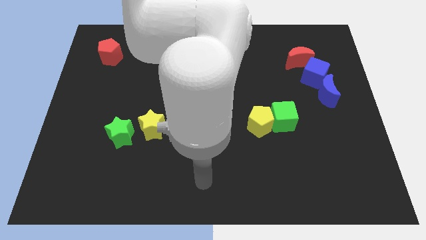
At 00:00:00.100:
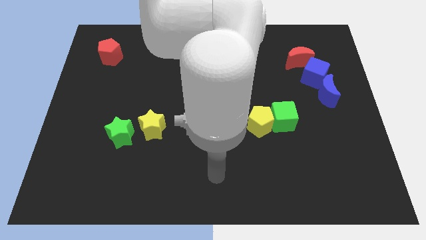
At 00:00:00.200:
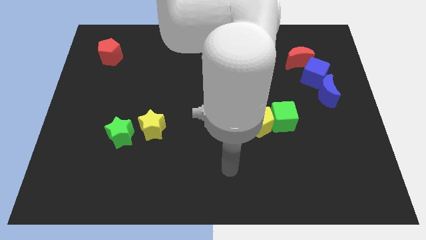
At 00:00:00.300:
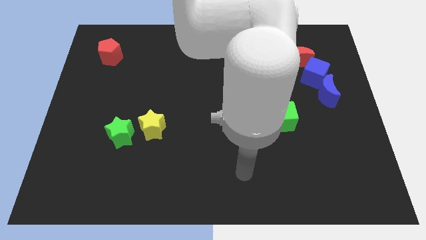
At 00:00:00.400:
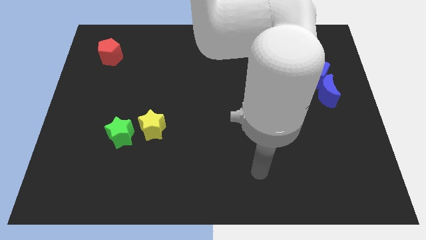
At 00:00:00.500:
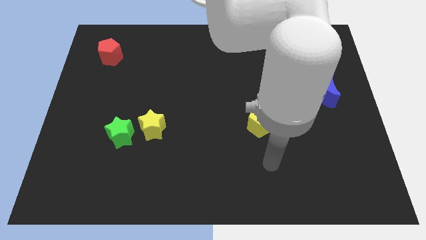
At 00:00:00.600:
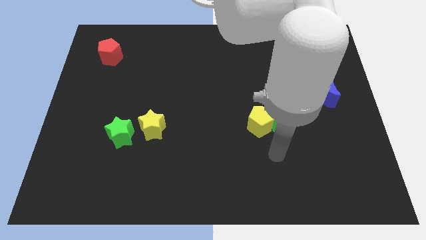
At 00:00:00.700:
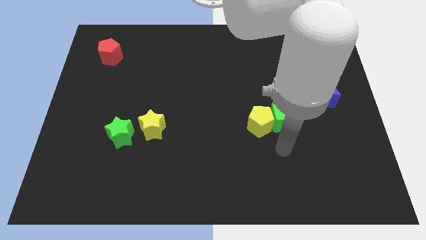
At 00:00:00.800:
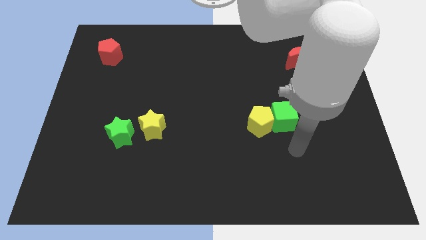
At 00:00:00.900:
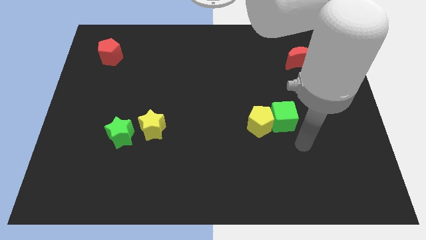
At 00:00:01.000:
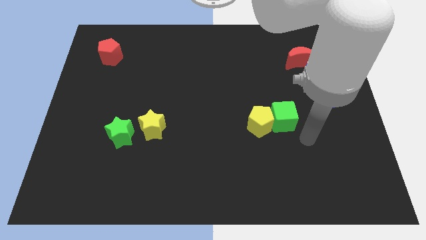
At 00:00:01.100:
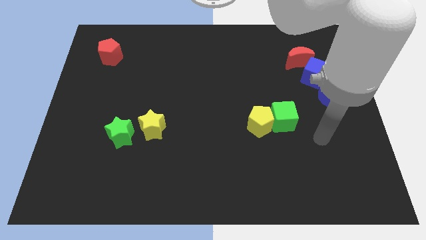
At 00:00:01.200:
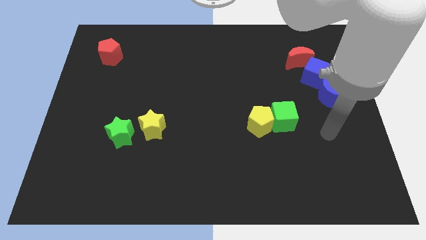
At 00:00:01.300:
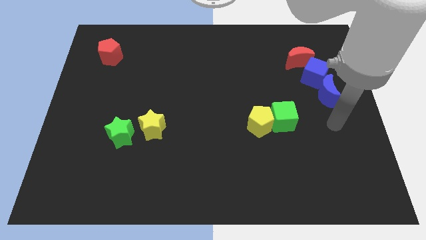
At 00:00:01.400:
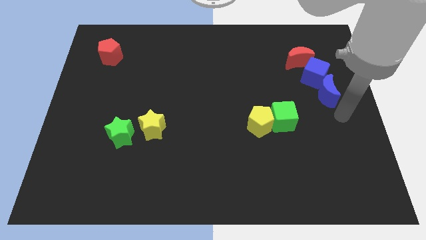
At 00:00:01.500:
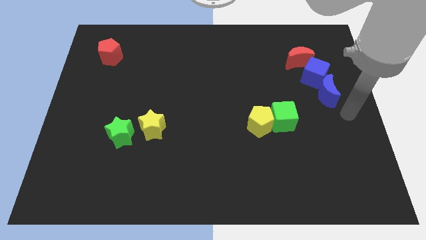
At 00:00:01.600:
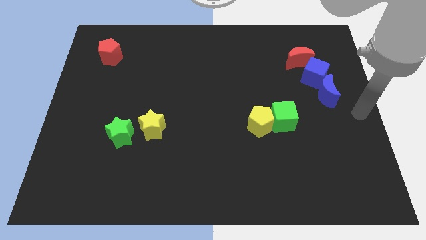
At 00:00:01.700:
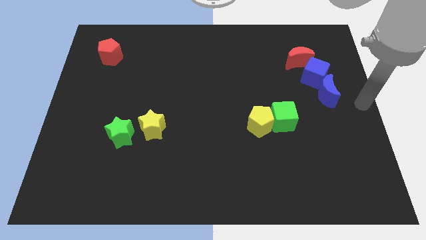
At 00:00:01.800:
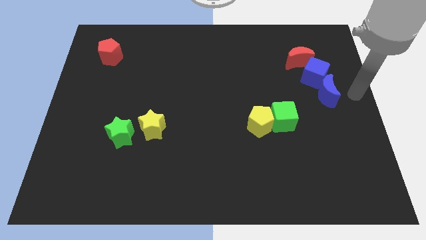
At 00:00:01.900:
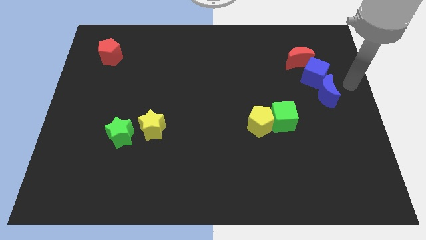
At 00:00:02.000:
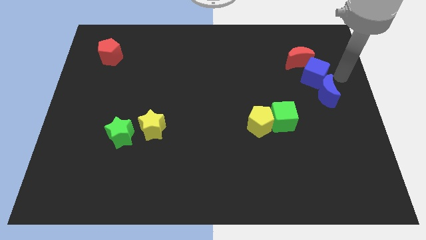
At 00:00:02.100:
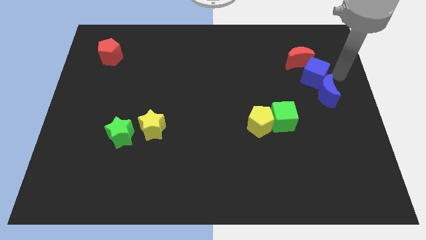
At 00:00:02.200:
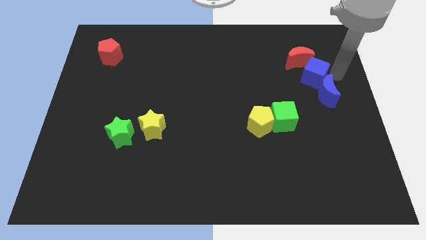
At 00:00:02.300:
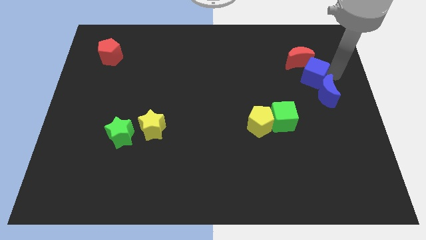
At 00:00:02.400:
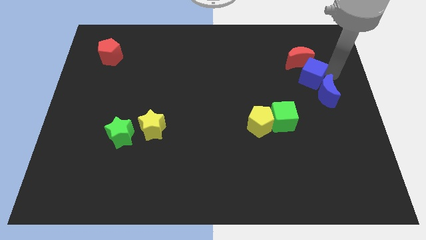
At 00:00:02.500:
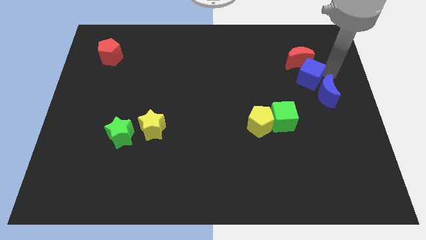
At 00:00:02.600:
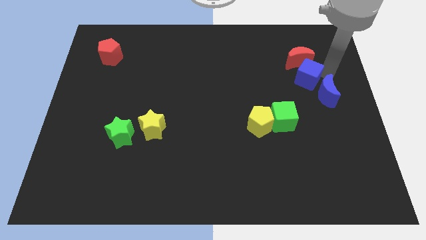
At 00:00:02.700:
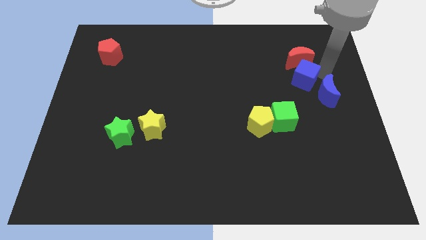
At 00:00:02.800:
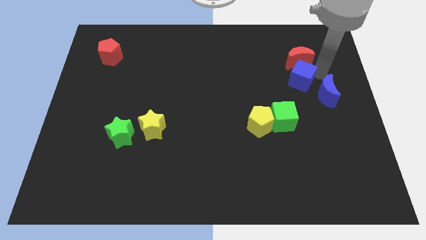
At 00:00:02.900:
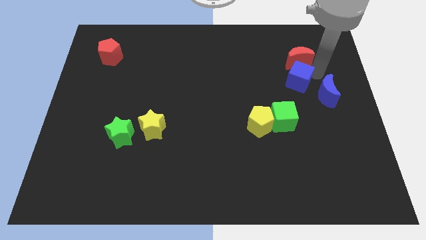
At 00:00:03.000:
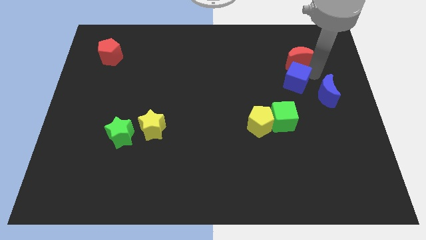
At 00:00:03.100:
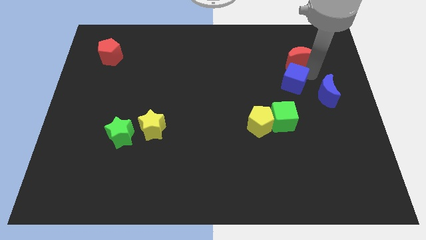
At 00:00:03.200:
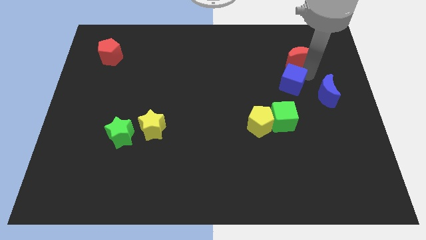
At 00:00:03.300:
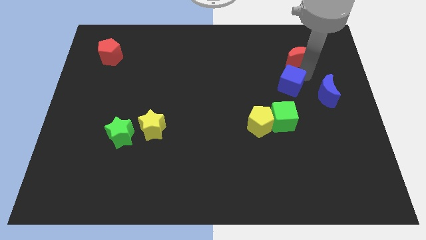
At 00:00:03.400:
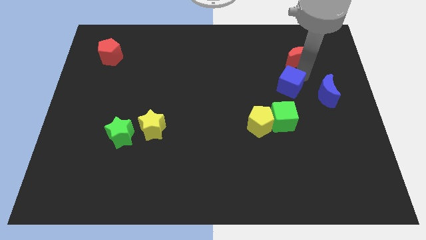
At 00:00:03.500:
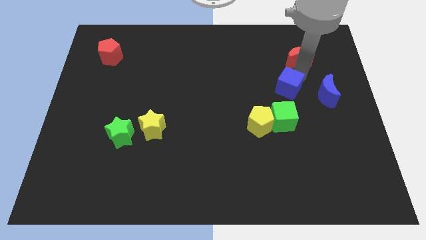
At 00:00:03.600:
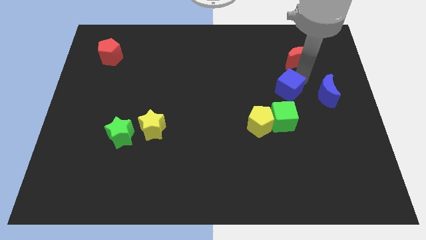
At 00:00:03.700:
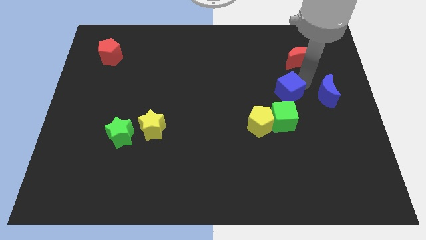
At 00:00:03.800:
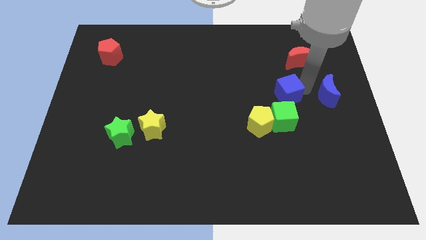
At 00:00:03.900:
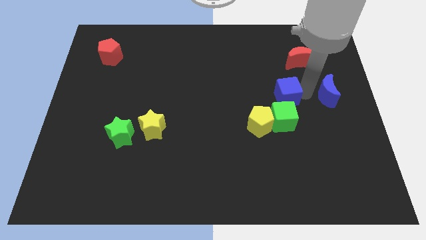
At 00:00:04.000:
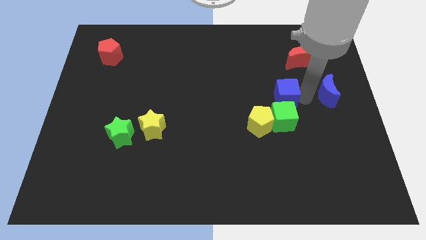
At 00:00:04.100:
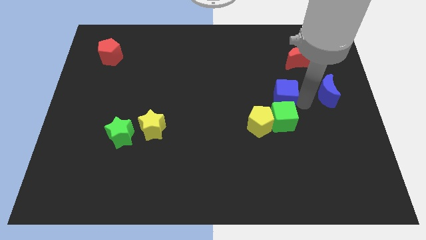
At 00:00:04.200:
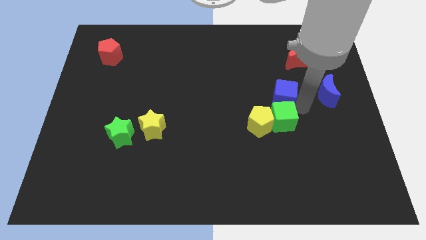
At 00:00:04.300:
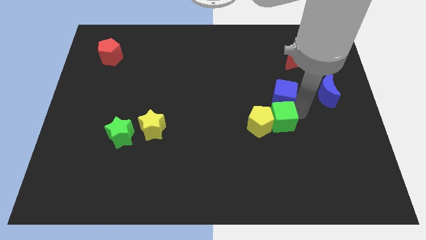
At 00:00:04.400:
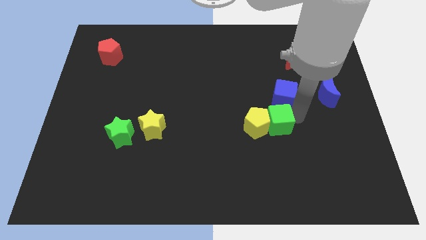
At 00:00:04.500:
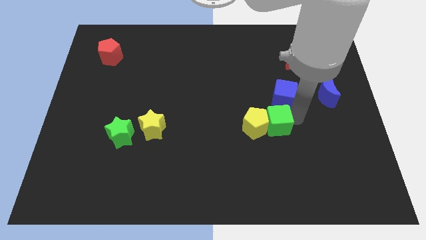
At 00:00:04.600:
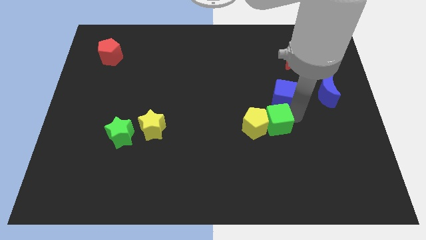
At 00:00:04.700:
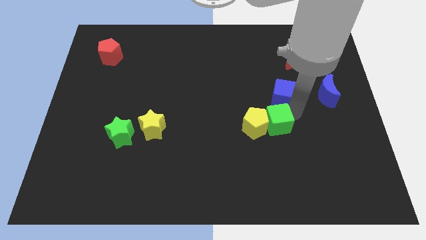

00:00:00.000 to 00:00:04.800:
slightly push the blue cube left

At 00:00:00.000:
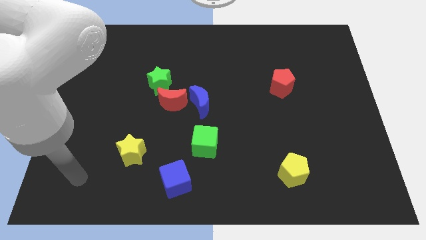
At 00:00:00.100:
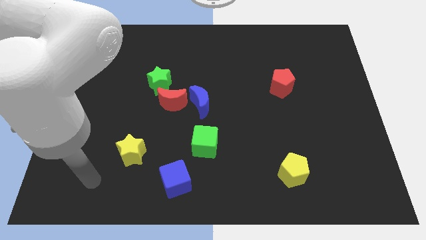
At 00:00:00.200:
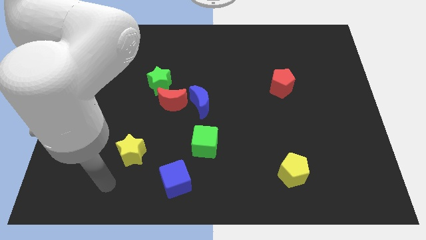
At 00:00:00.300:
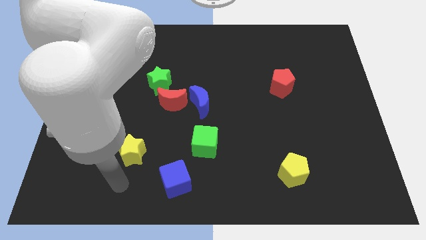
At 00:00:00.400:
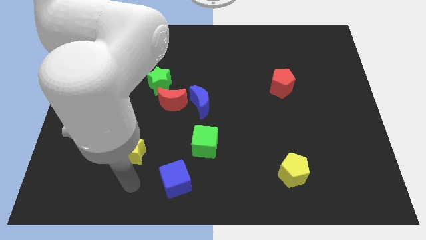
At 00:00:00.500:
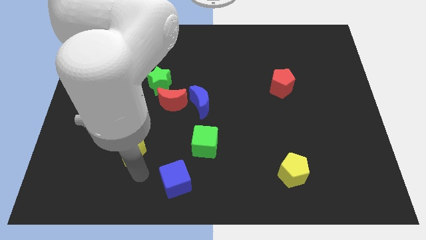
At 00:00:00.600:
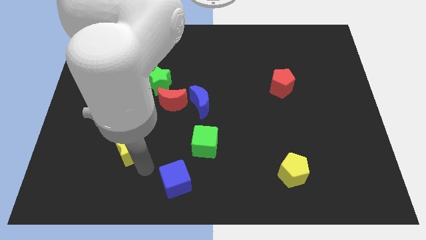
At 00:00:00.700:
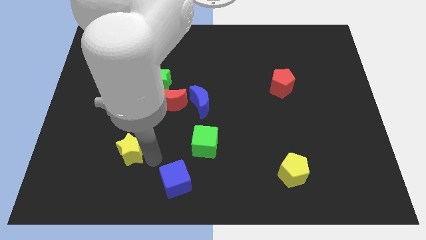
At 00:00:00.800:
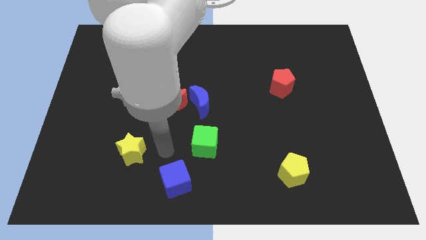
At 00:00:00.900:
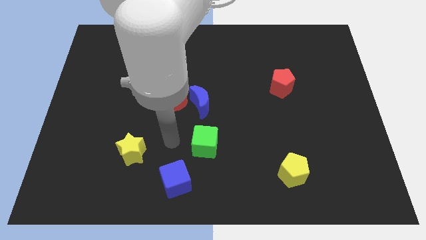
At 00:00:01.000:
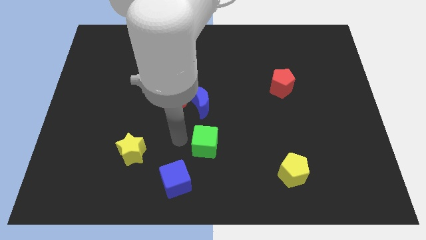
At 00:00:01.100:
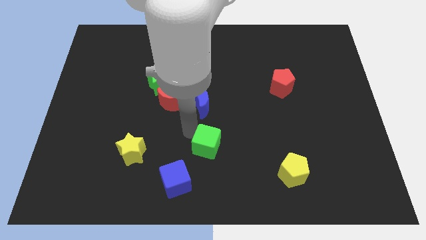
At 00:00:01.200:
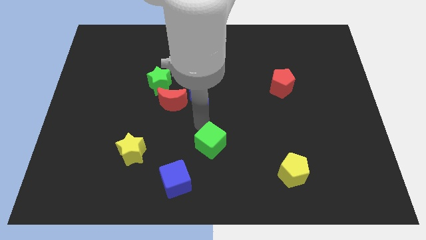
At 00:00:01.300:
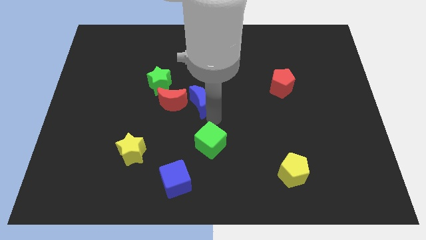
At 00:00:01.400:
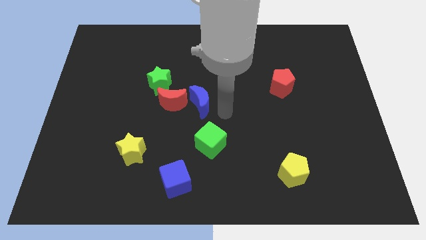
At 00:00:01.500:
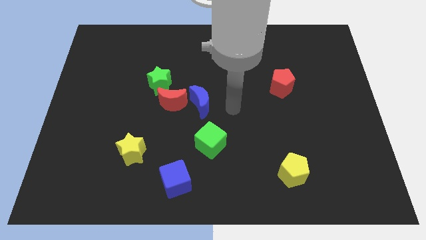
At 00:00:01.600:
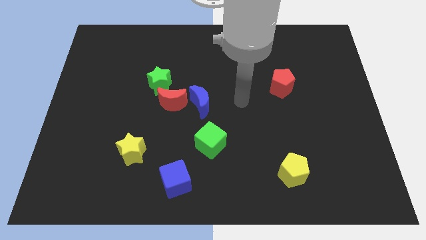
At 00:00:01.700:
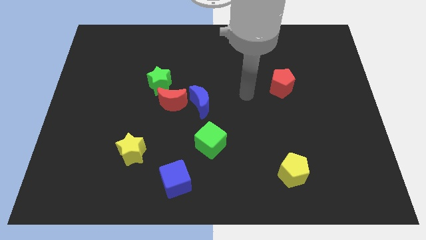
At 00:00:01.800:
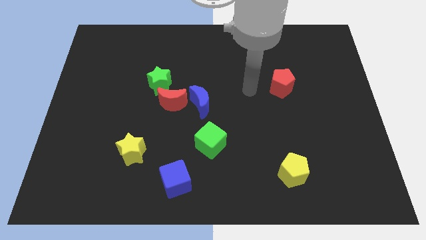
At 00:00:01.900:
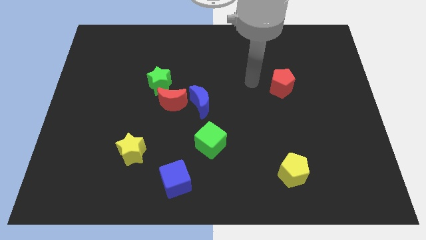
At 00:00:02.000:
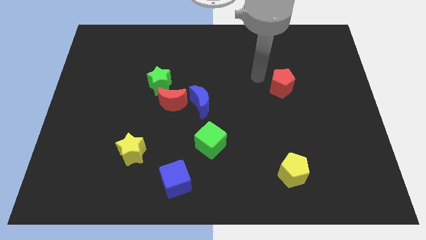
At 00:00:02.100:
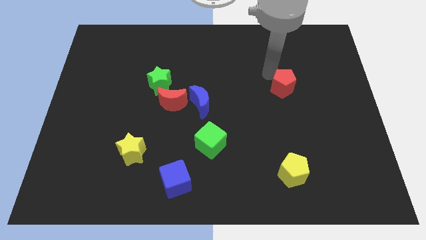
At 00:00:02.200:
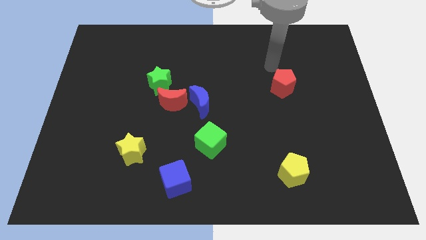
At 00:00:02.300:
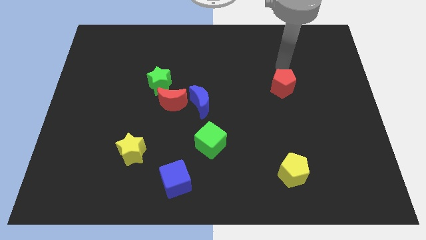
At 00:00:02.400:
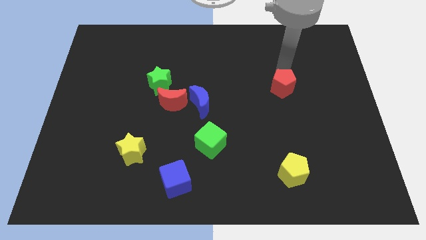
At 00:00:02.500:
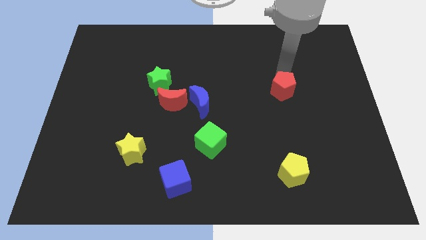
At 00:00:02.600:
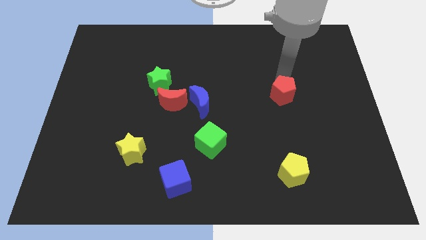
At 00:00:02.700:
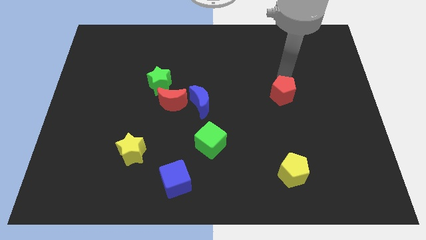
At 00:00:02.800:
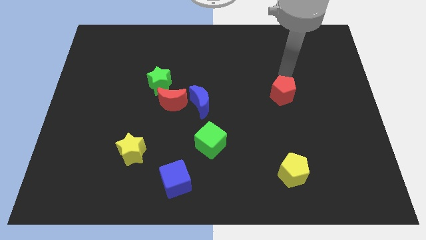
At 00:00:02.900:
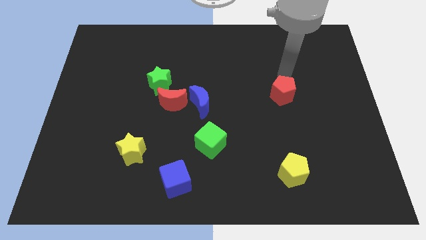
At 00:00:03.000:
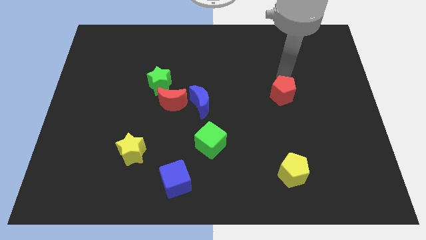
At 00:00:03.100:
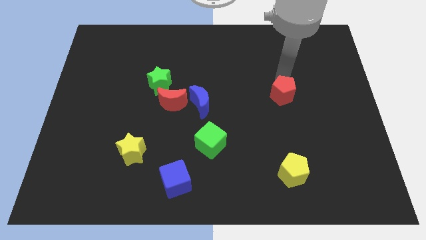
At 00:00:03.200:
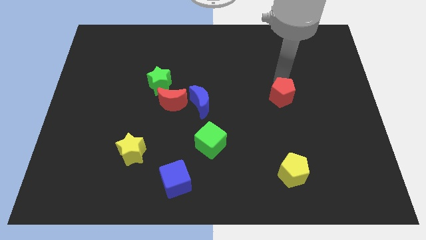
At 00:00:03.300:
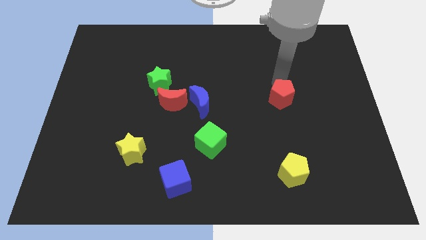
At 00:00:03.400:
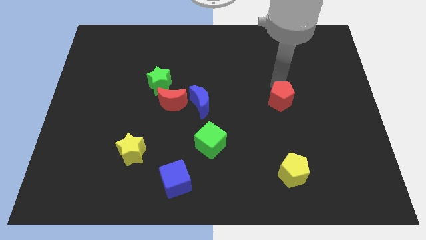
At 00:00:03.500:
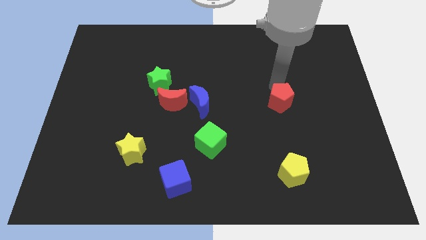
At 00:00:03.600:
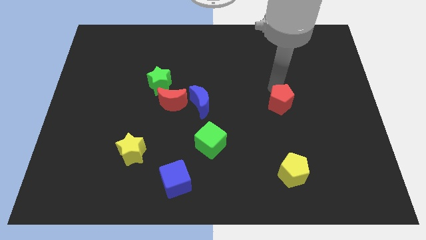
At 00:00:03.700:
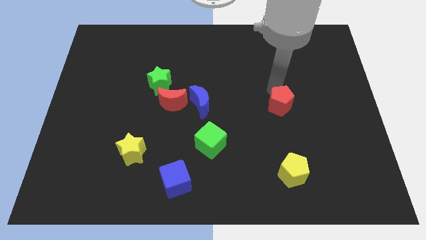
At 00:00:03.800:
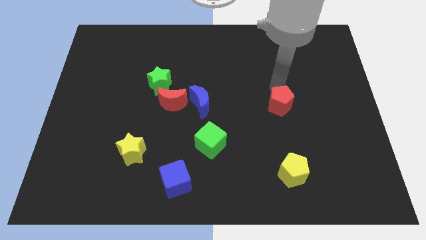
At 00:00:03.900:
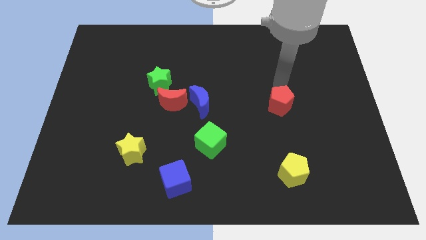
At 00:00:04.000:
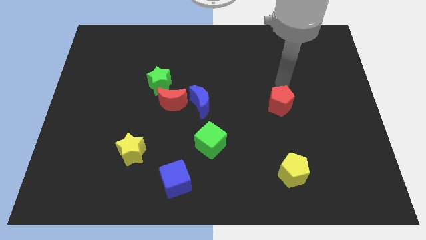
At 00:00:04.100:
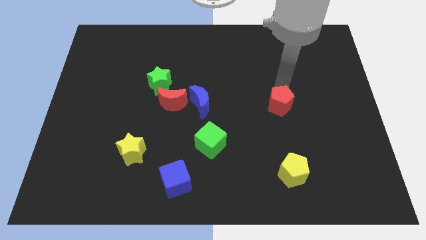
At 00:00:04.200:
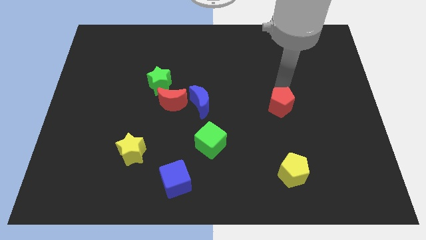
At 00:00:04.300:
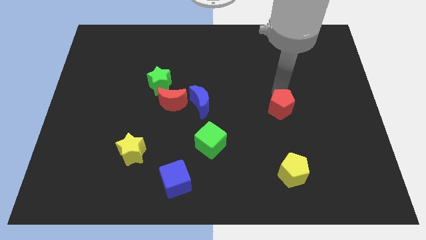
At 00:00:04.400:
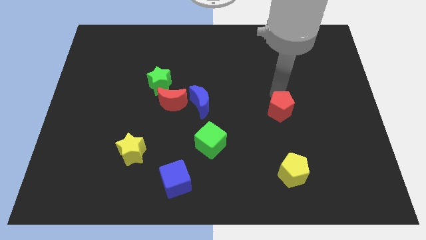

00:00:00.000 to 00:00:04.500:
slightly push the red pentagon downwards
